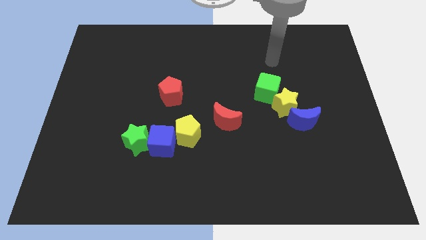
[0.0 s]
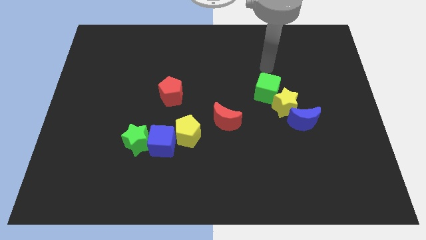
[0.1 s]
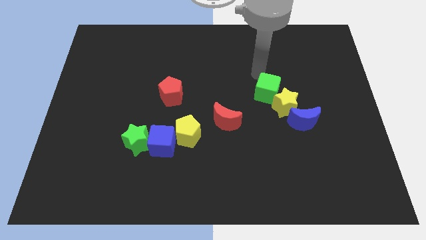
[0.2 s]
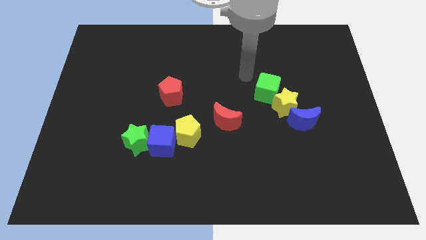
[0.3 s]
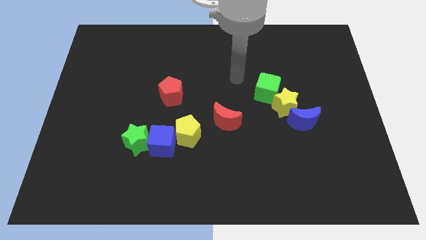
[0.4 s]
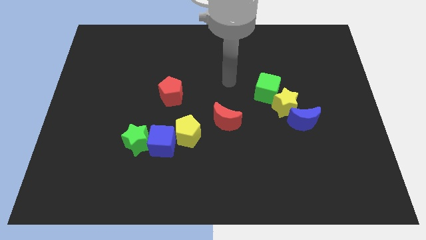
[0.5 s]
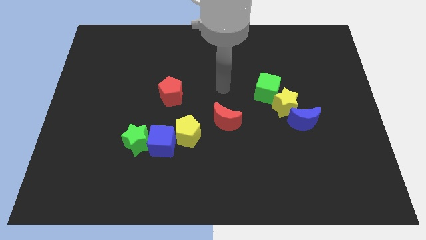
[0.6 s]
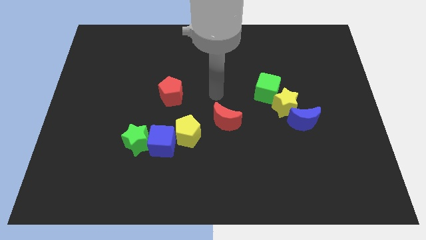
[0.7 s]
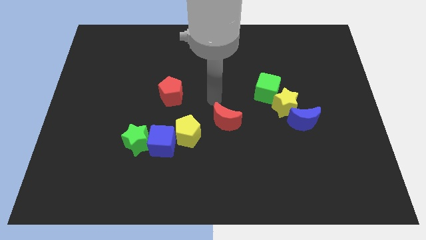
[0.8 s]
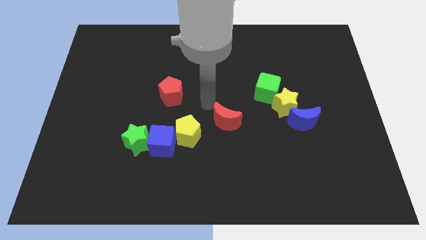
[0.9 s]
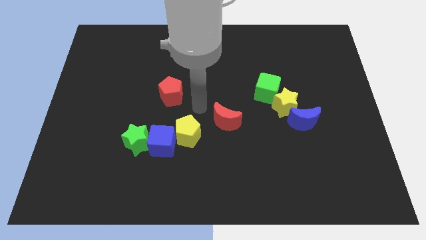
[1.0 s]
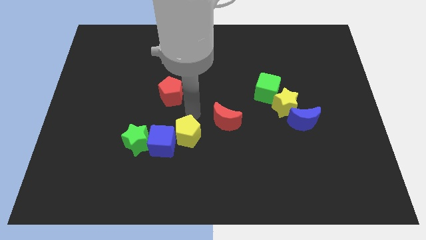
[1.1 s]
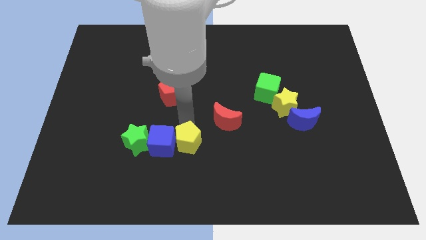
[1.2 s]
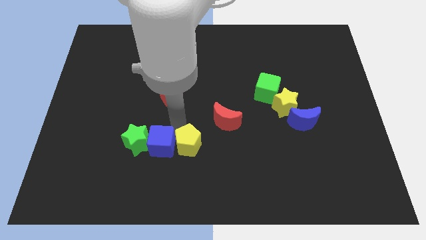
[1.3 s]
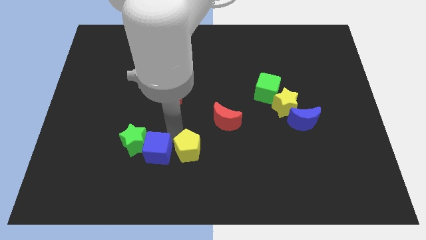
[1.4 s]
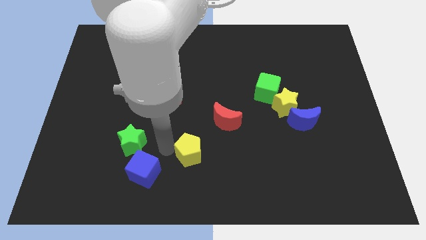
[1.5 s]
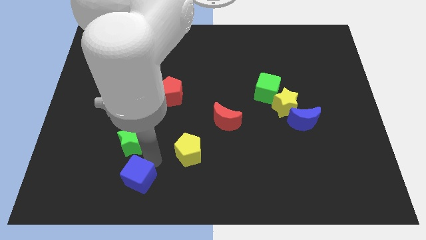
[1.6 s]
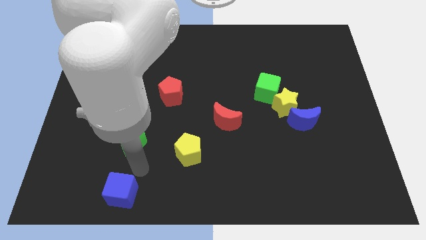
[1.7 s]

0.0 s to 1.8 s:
move the green star away from the blue cube

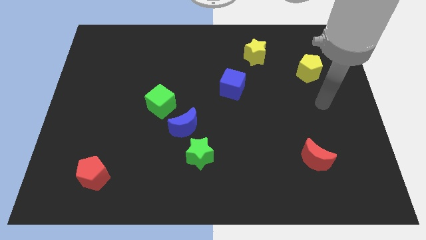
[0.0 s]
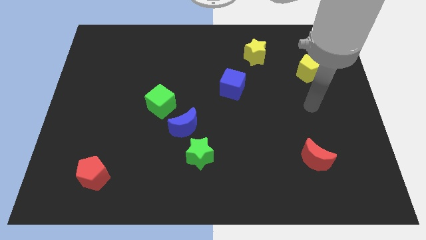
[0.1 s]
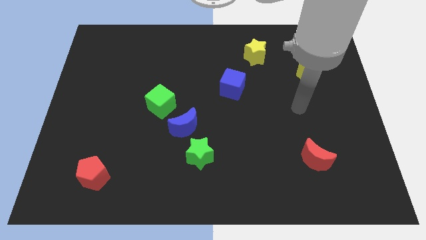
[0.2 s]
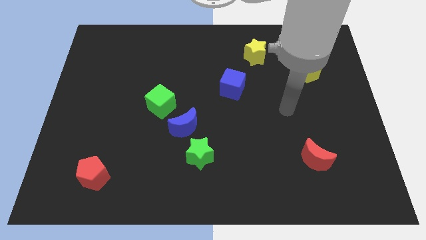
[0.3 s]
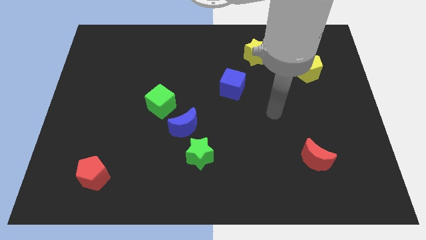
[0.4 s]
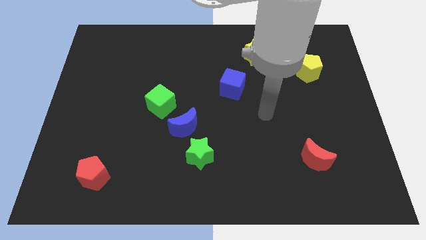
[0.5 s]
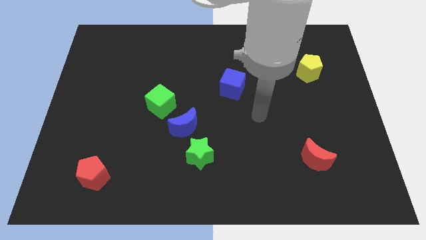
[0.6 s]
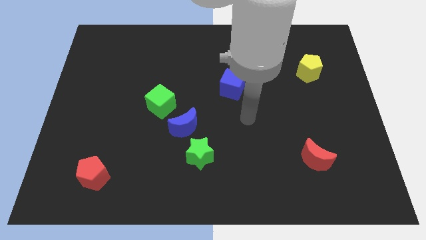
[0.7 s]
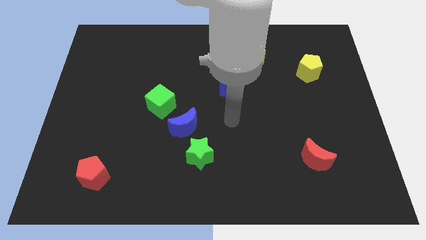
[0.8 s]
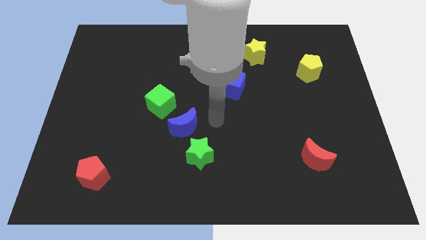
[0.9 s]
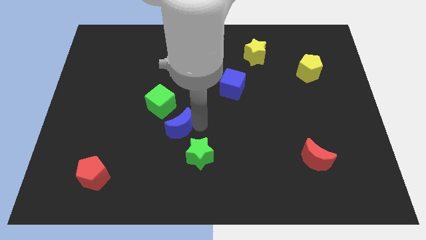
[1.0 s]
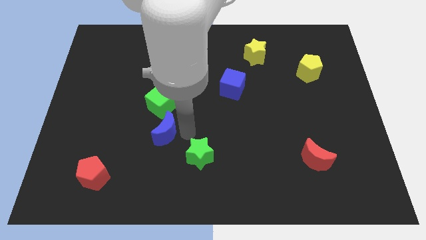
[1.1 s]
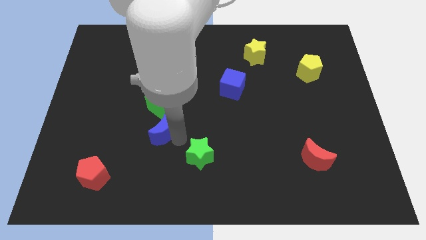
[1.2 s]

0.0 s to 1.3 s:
move the green star away from the blue moon

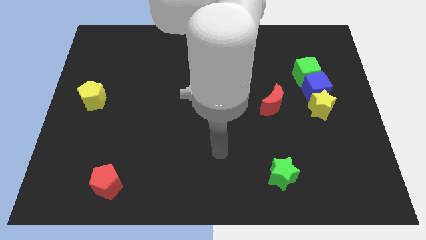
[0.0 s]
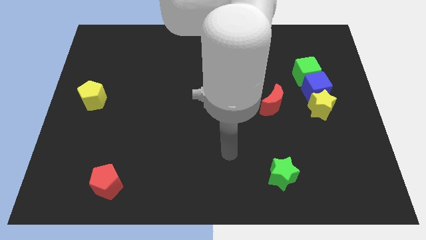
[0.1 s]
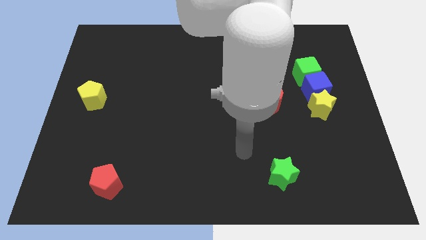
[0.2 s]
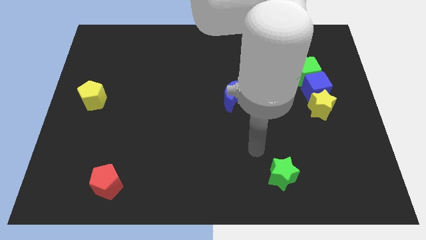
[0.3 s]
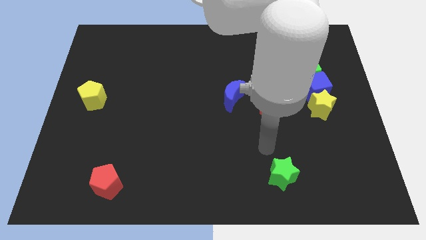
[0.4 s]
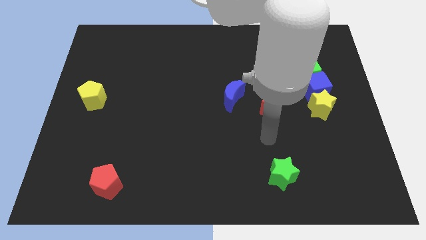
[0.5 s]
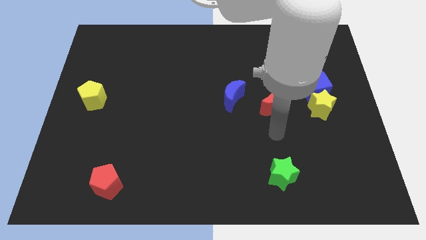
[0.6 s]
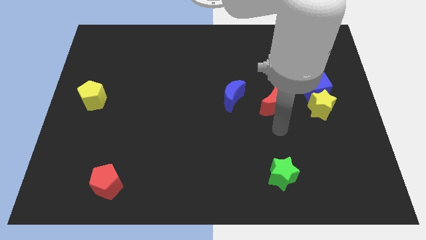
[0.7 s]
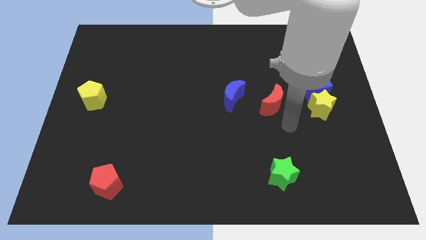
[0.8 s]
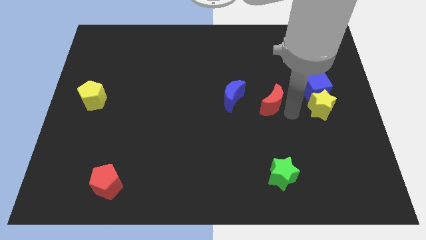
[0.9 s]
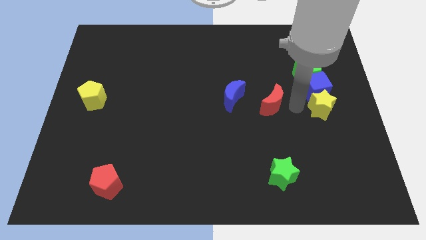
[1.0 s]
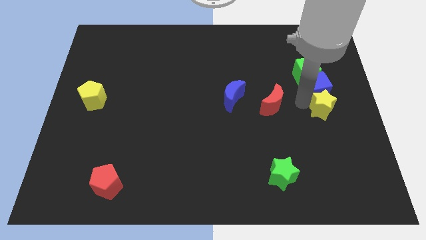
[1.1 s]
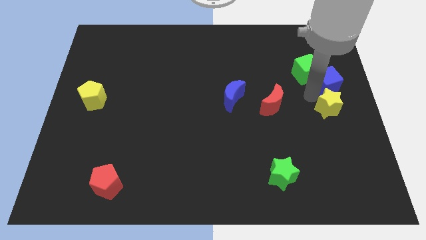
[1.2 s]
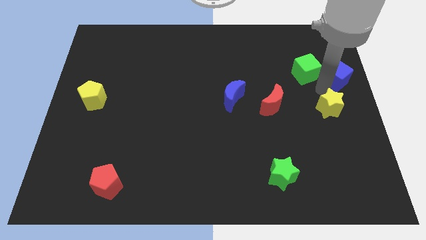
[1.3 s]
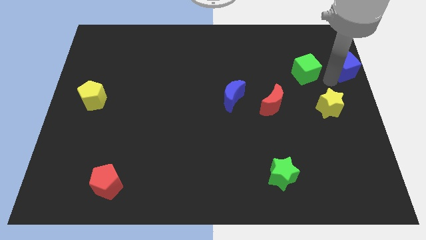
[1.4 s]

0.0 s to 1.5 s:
move the green cube away from the blue cube

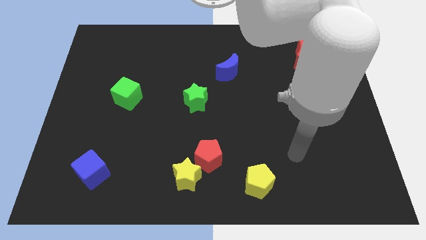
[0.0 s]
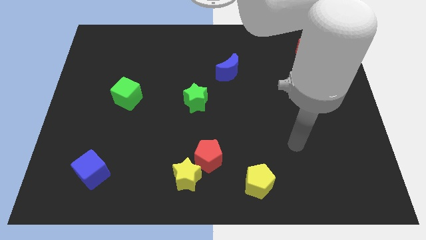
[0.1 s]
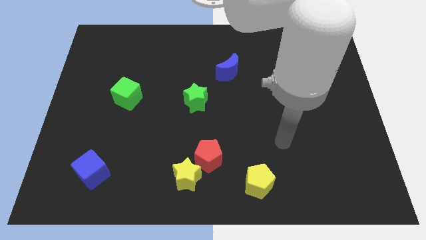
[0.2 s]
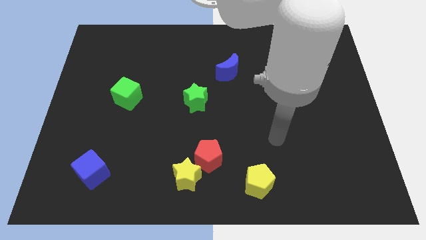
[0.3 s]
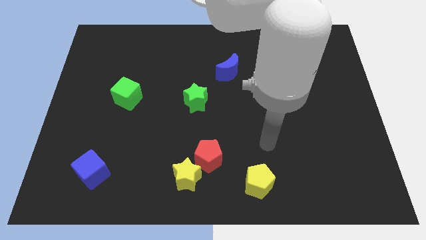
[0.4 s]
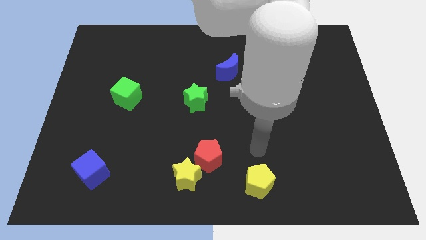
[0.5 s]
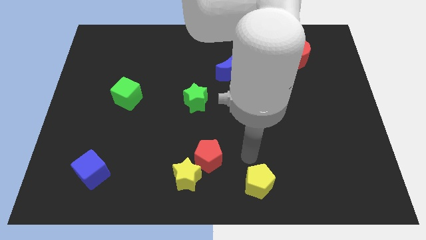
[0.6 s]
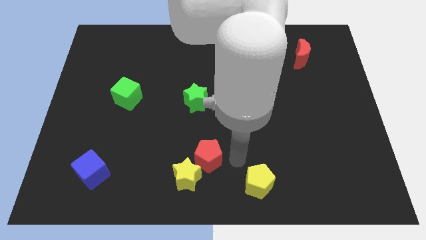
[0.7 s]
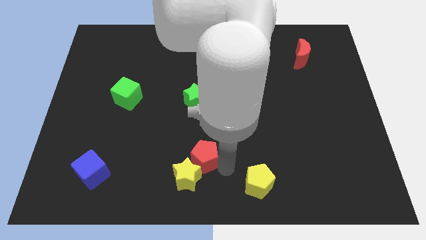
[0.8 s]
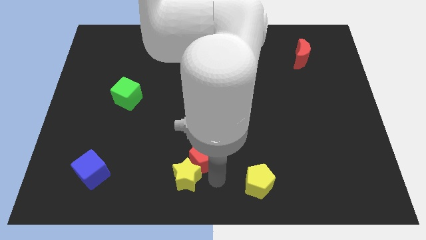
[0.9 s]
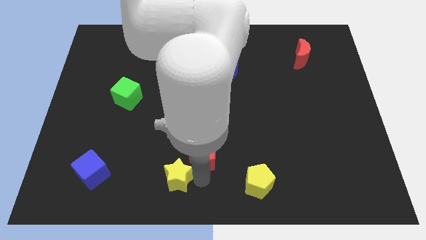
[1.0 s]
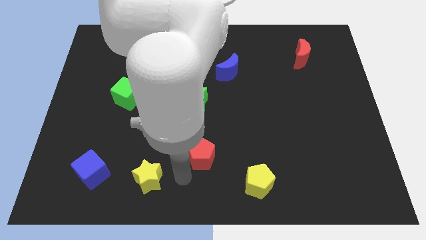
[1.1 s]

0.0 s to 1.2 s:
pull the red pentagon apart from the yellow star

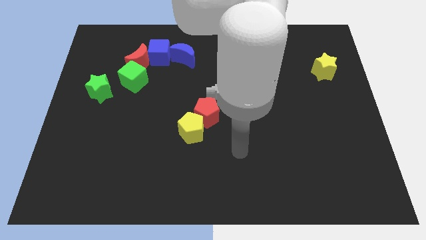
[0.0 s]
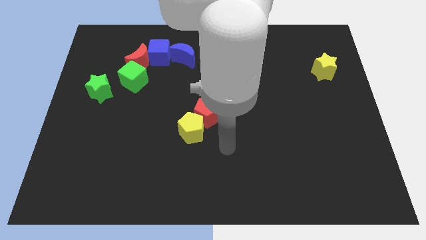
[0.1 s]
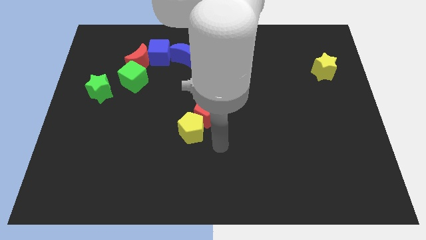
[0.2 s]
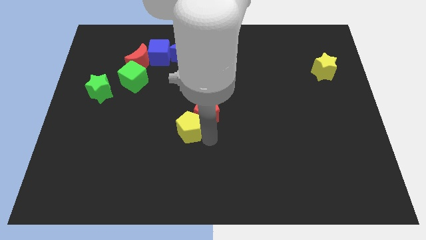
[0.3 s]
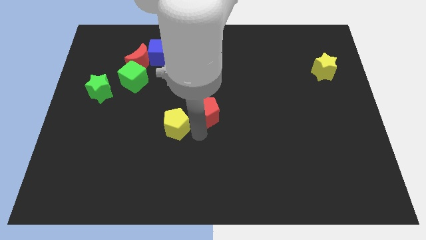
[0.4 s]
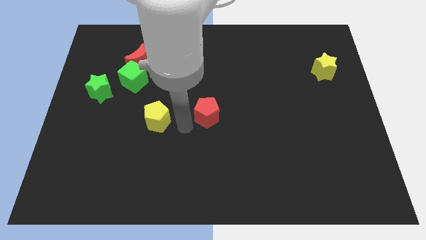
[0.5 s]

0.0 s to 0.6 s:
separate the red pentagon from the yellow pentagon

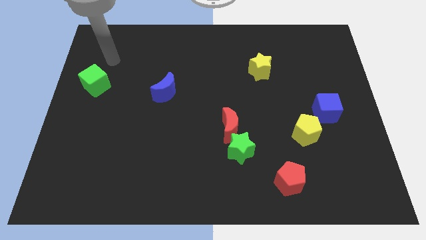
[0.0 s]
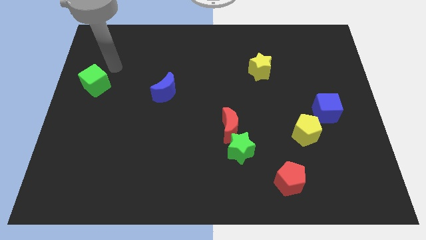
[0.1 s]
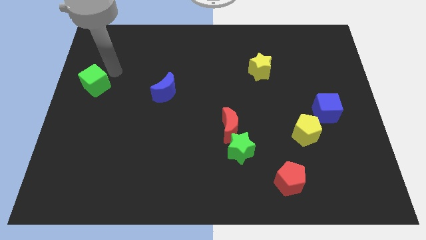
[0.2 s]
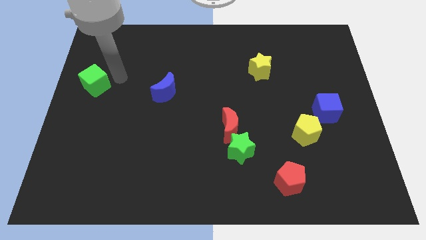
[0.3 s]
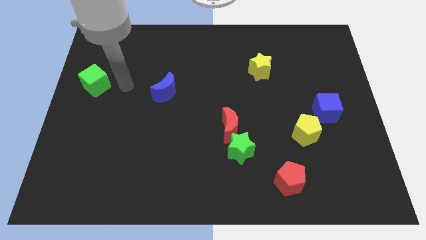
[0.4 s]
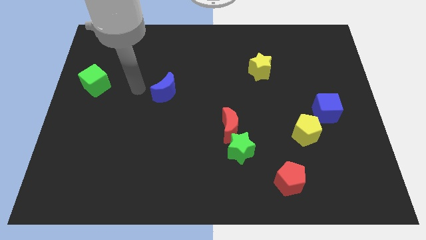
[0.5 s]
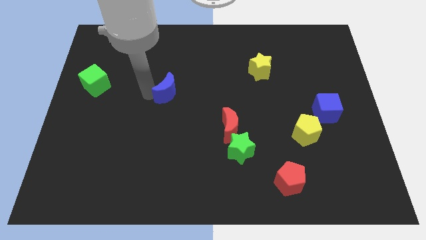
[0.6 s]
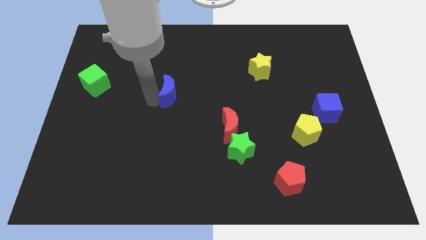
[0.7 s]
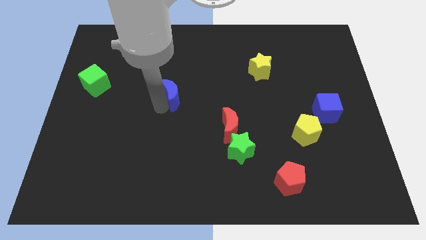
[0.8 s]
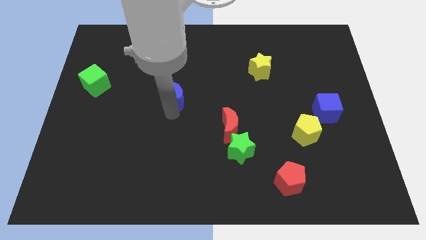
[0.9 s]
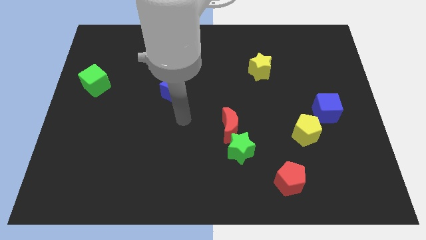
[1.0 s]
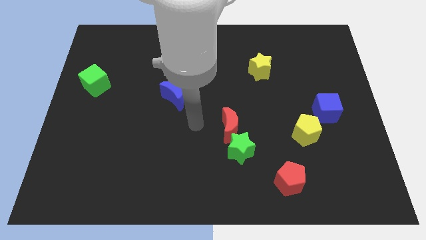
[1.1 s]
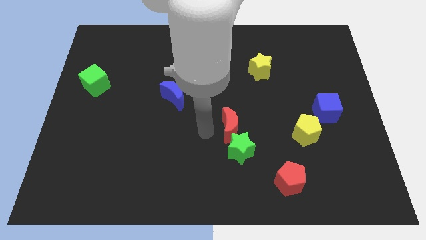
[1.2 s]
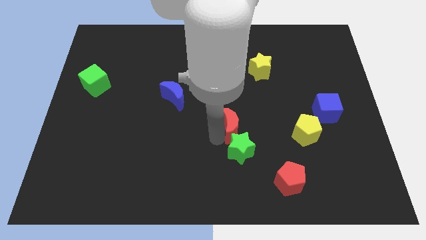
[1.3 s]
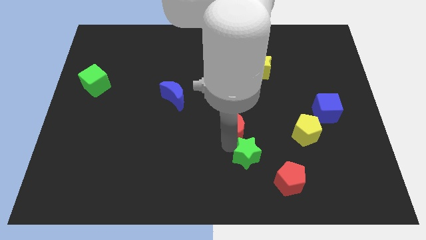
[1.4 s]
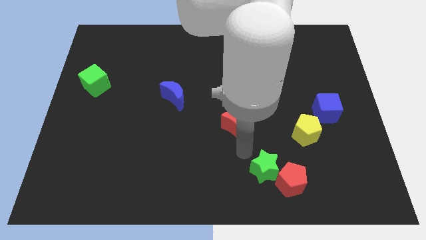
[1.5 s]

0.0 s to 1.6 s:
move the red moon away from the green star

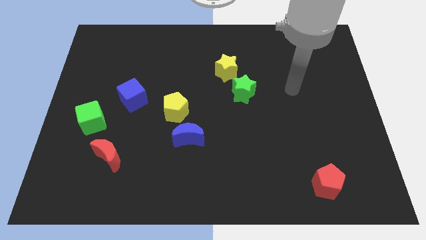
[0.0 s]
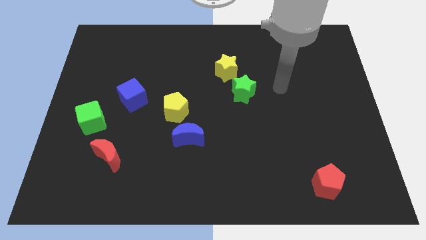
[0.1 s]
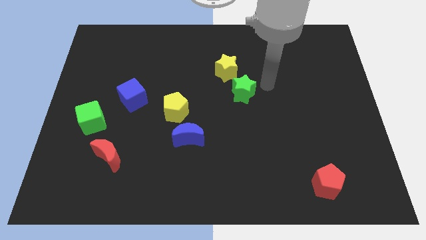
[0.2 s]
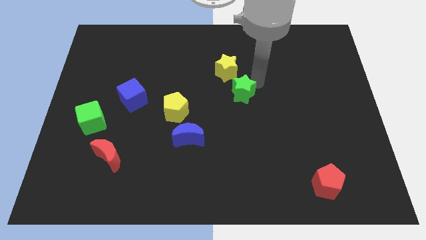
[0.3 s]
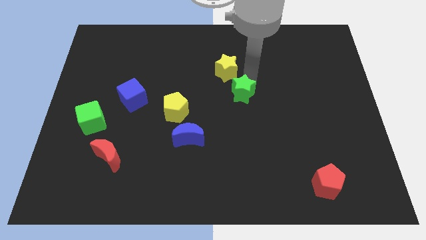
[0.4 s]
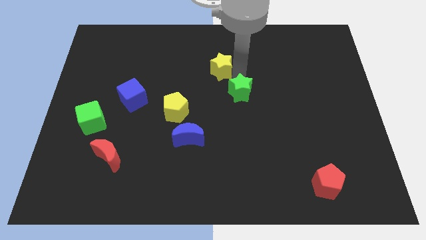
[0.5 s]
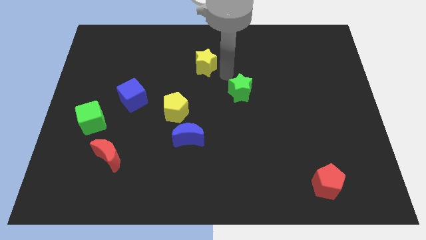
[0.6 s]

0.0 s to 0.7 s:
move the green star away from the yellow star

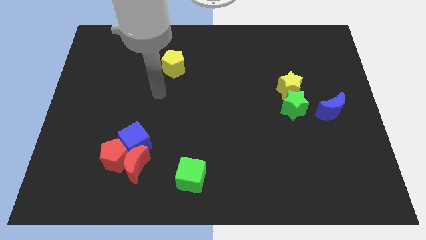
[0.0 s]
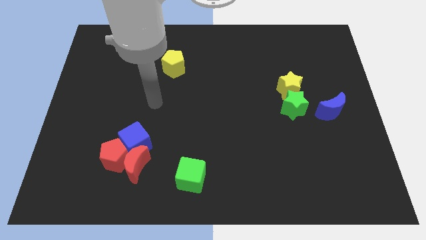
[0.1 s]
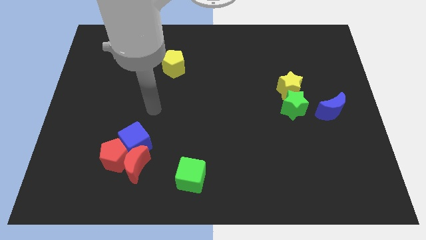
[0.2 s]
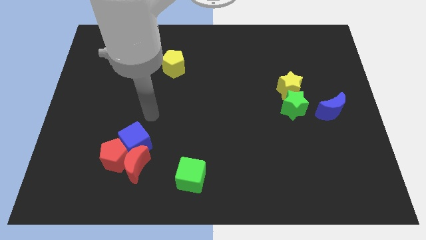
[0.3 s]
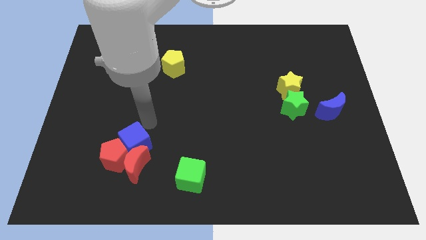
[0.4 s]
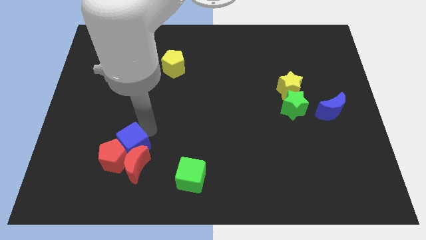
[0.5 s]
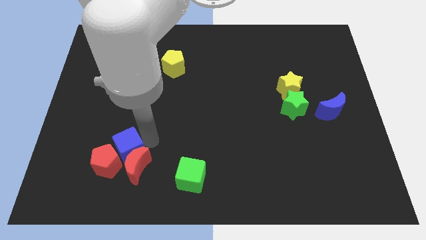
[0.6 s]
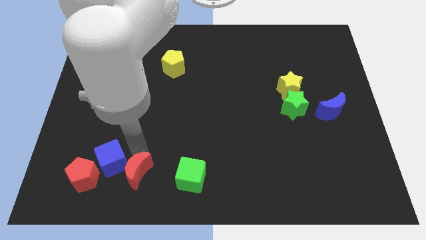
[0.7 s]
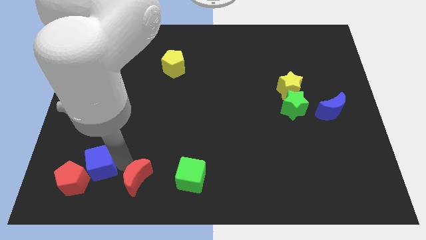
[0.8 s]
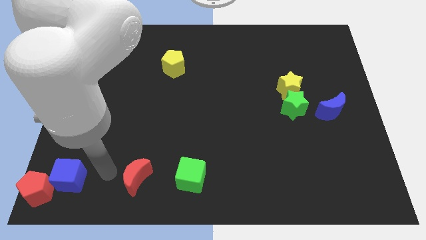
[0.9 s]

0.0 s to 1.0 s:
separate the red pentagon from the red moon and blue cube
